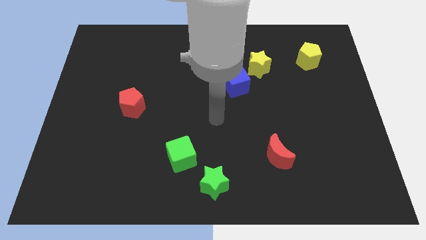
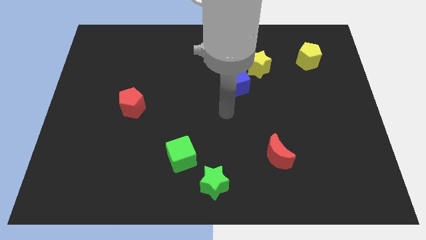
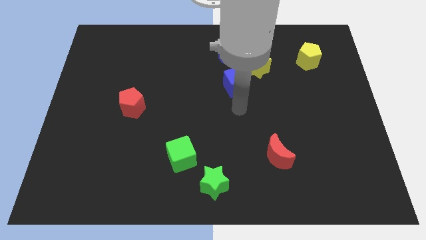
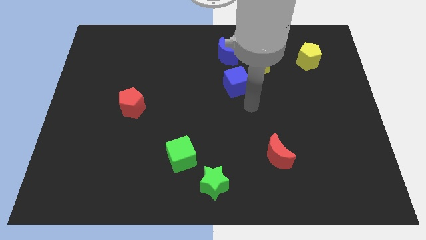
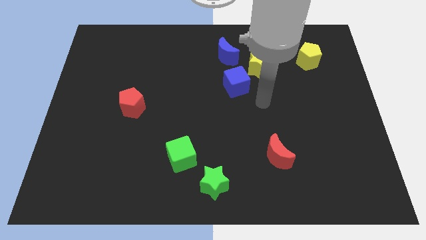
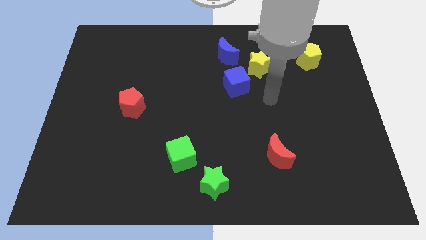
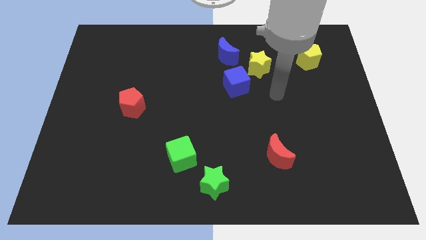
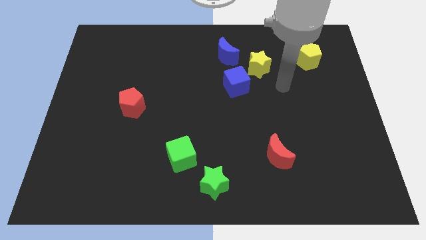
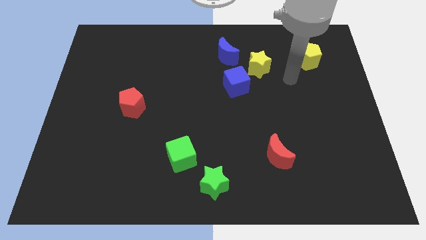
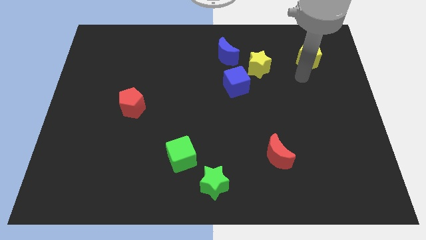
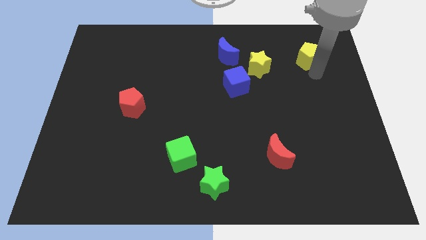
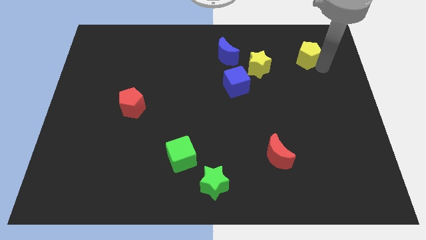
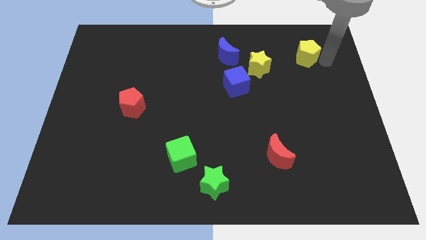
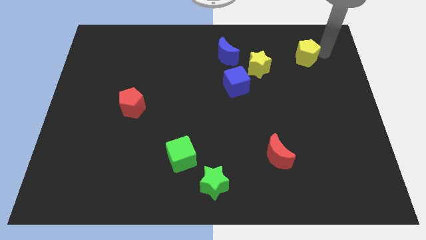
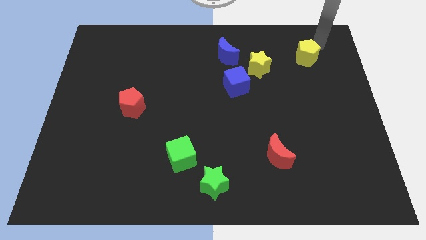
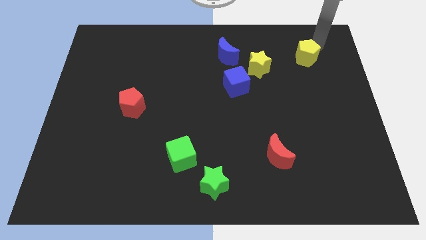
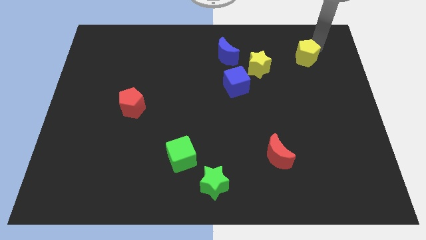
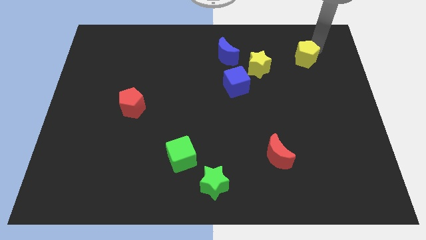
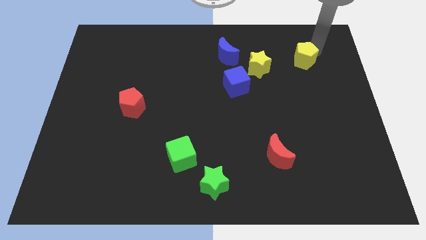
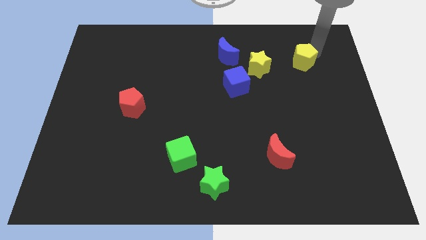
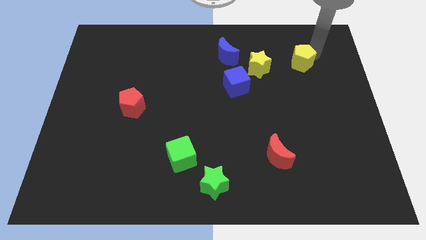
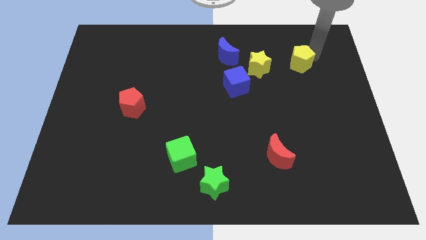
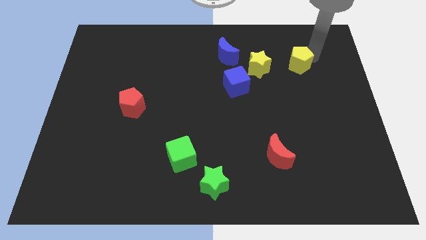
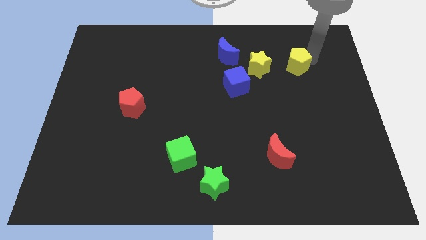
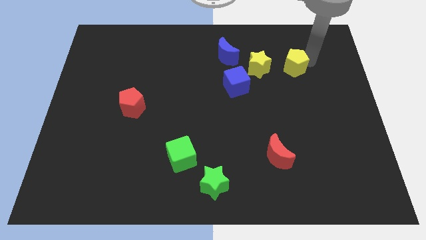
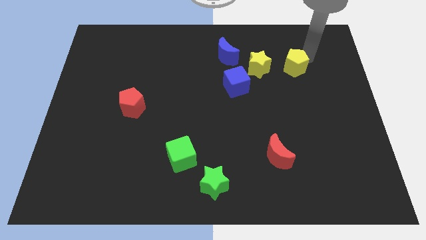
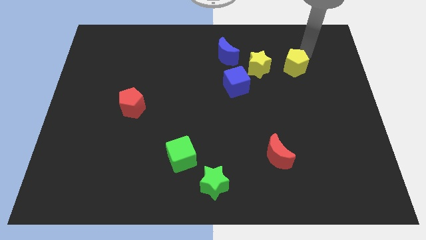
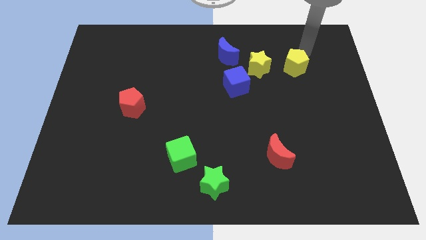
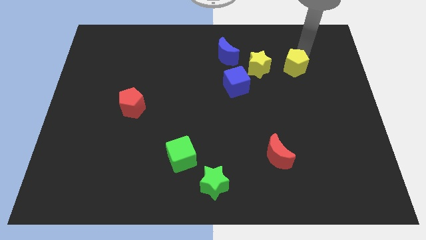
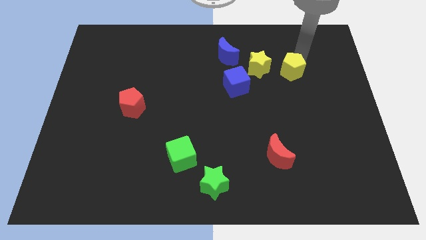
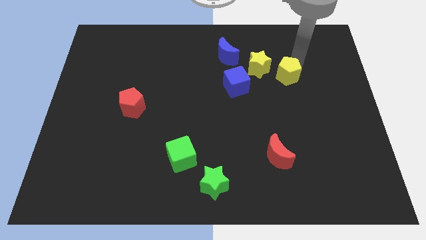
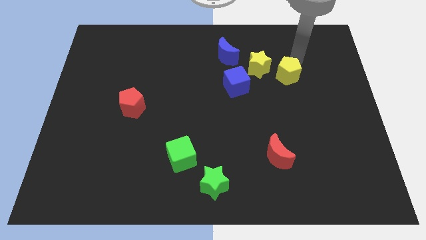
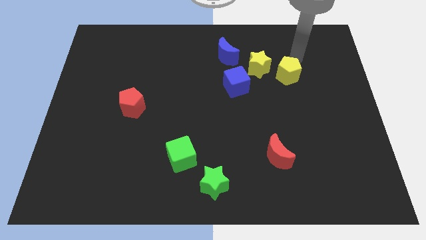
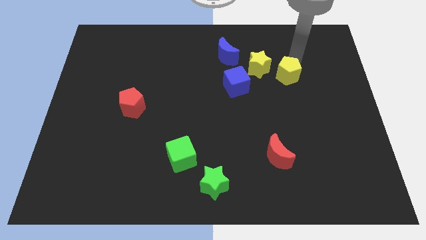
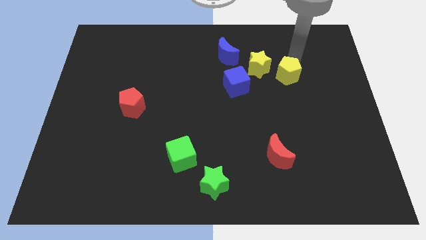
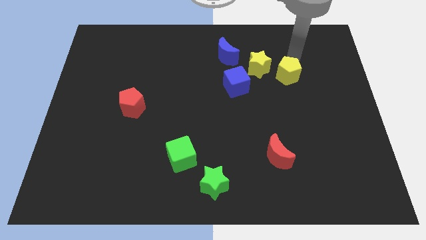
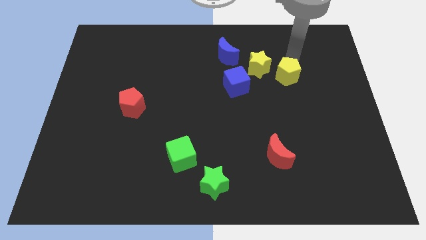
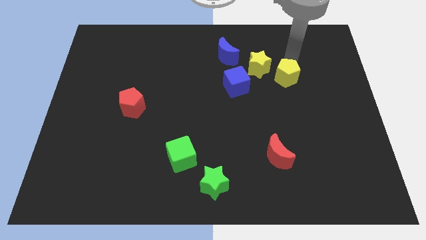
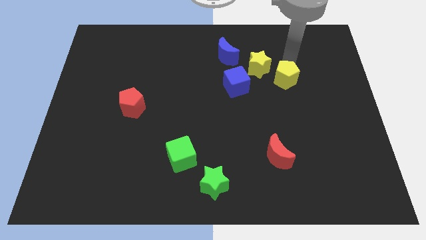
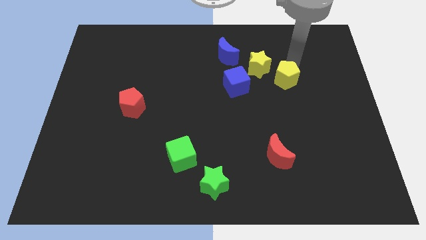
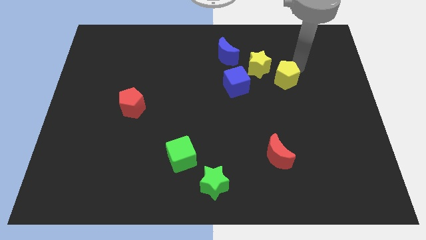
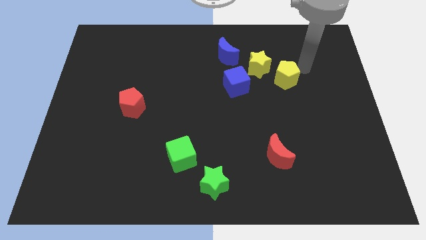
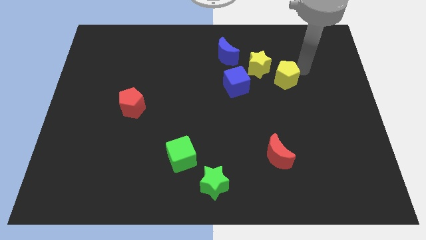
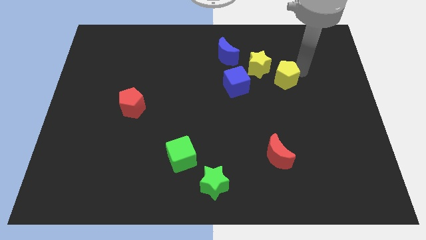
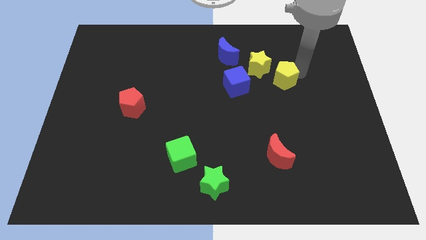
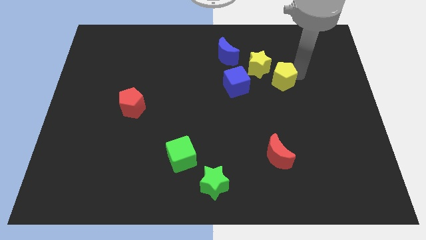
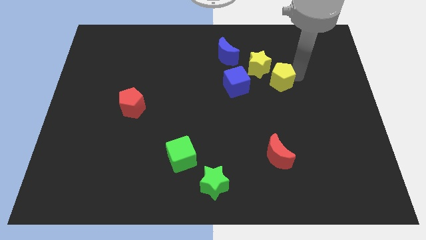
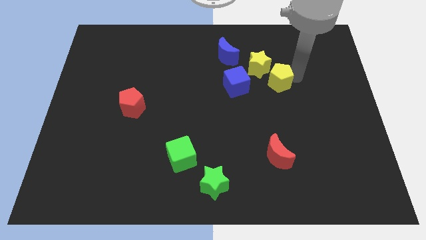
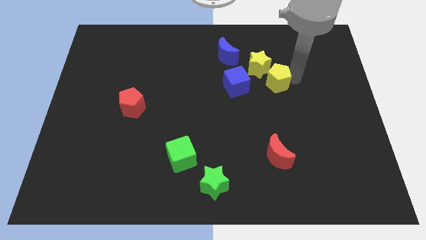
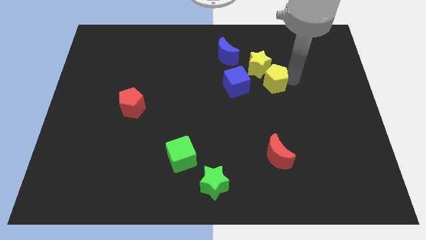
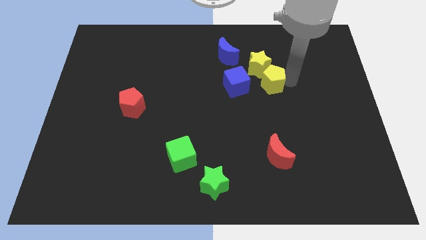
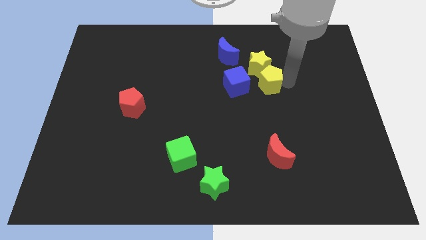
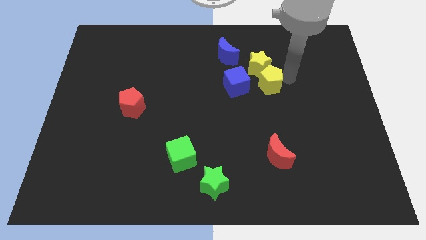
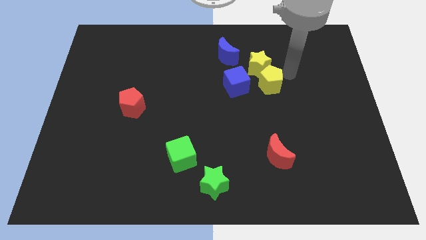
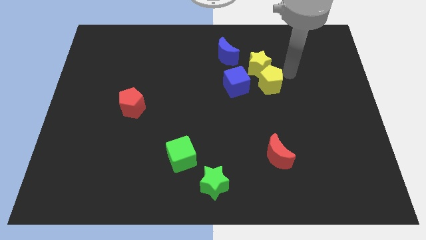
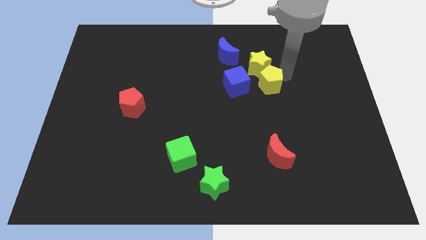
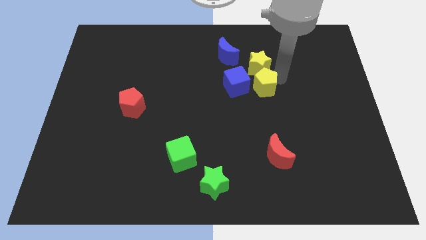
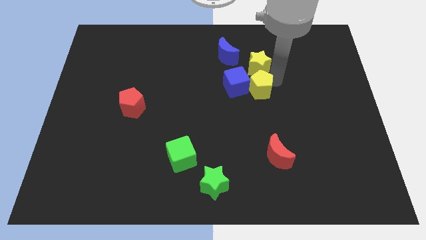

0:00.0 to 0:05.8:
push the yellow pentagon to the center of the board
